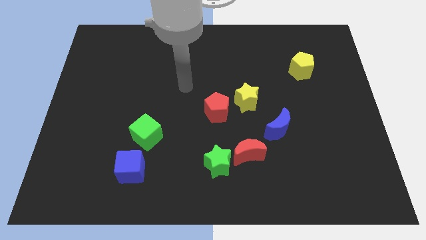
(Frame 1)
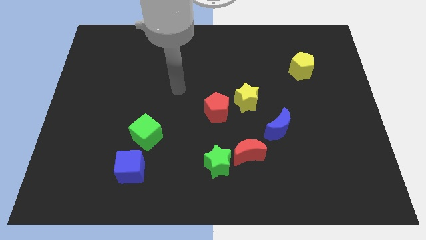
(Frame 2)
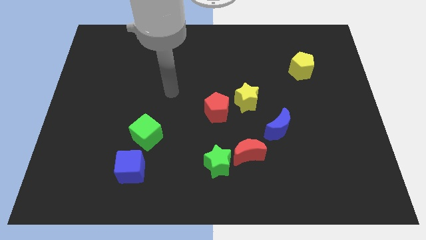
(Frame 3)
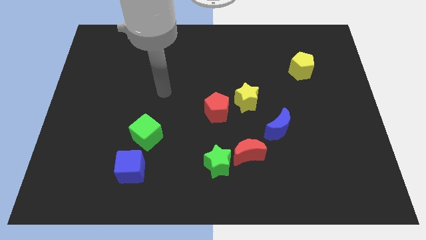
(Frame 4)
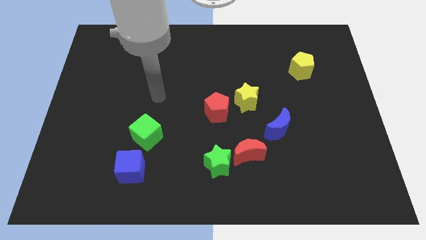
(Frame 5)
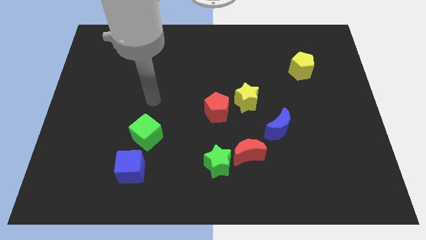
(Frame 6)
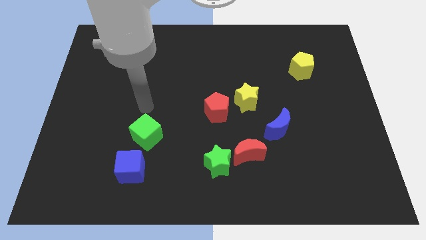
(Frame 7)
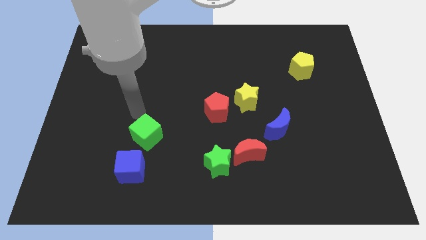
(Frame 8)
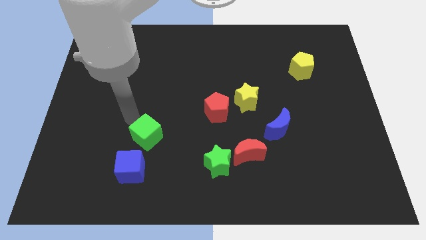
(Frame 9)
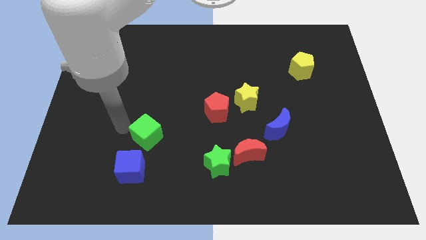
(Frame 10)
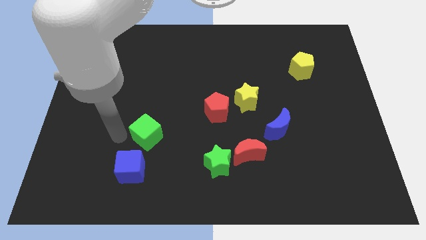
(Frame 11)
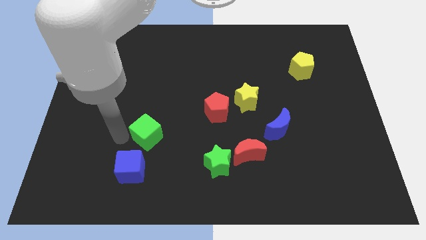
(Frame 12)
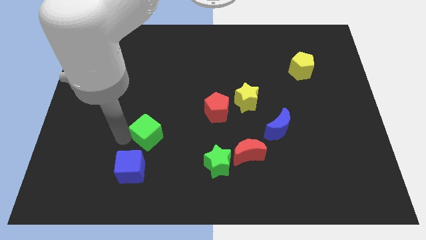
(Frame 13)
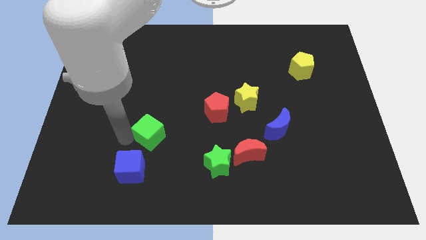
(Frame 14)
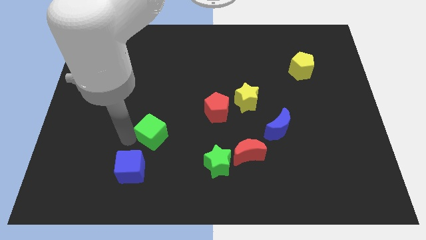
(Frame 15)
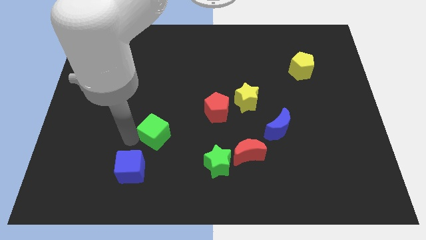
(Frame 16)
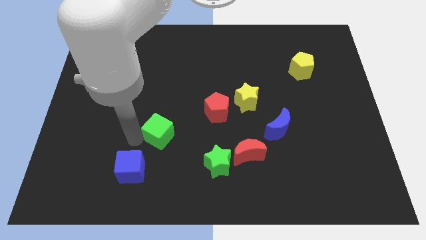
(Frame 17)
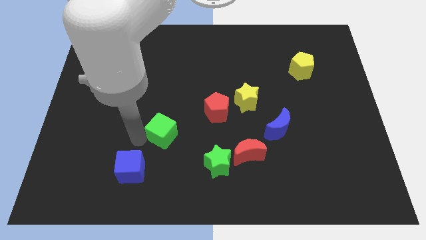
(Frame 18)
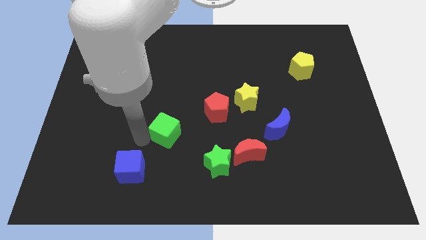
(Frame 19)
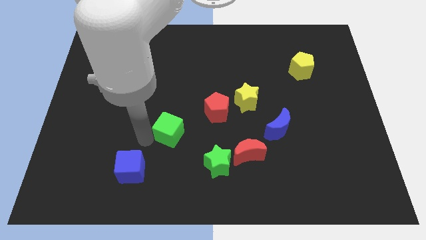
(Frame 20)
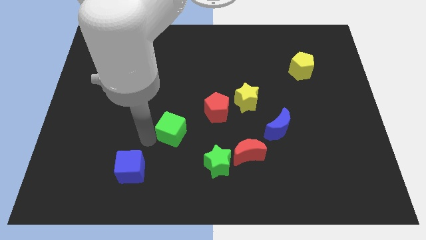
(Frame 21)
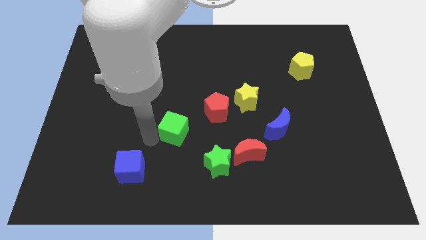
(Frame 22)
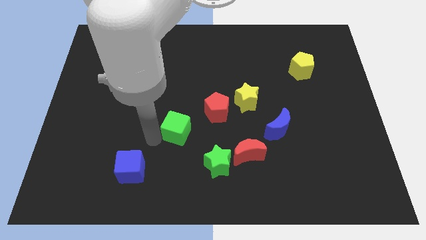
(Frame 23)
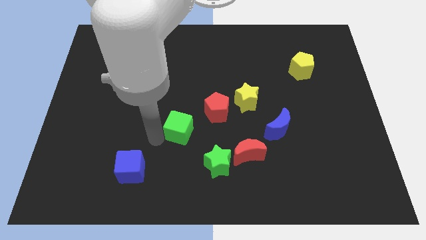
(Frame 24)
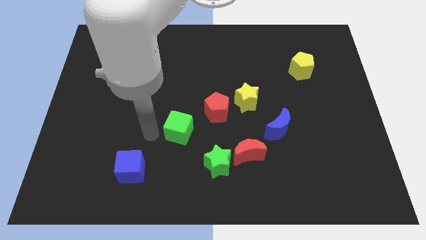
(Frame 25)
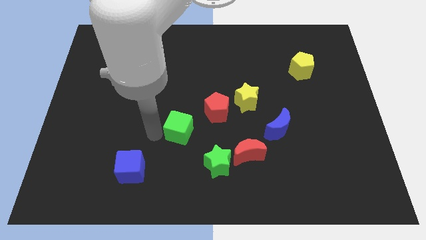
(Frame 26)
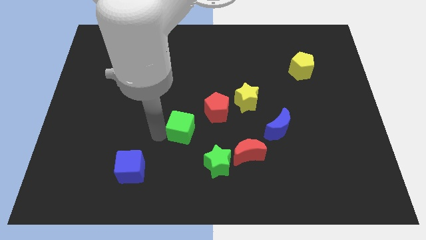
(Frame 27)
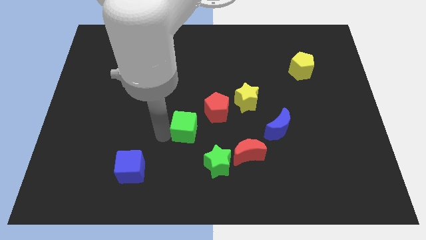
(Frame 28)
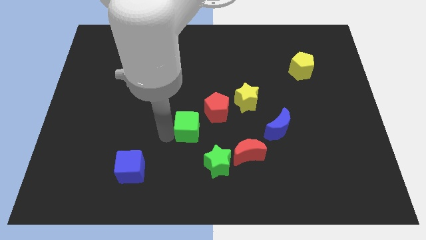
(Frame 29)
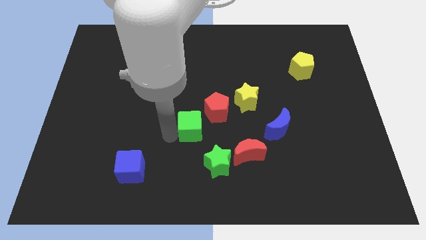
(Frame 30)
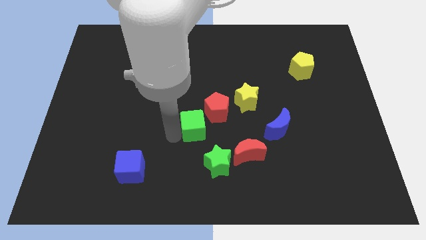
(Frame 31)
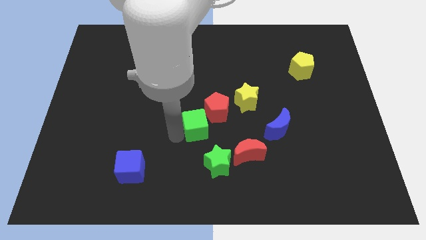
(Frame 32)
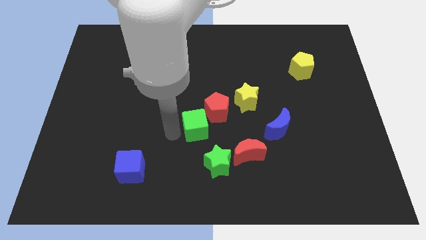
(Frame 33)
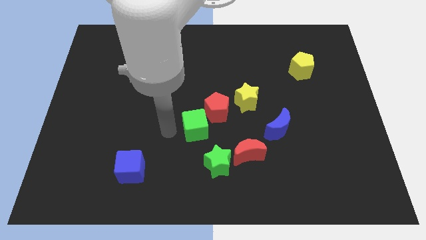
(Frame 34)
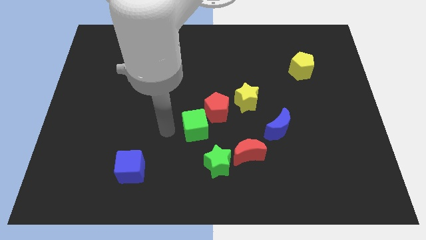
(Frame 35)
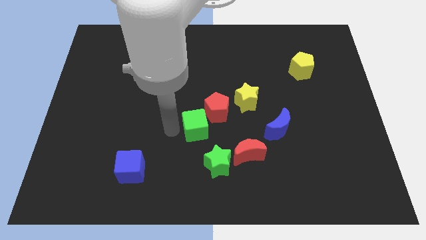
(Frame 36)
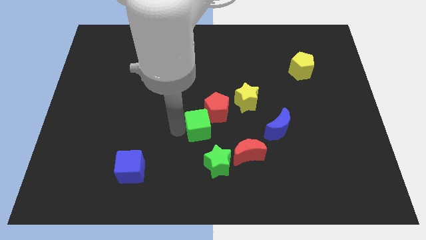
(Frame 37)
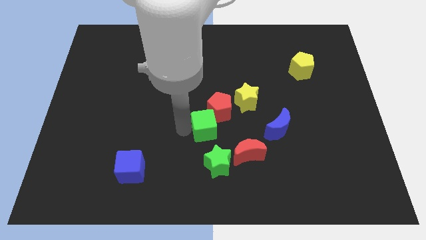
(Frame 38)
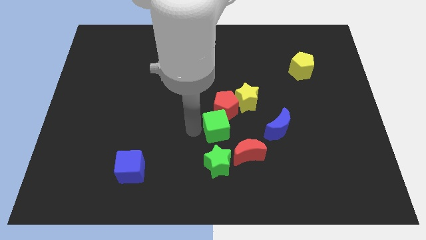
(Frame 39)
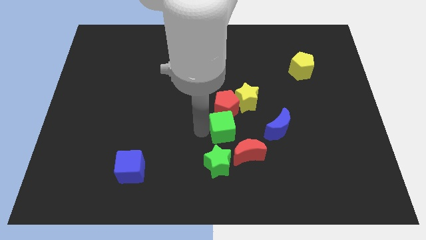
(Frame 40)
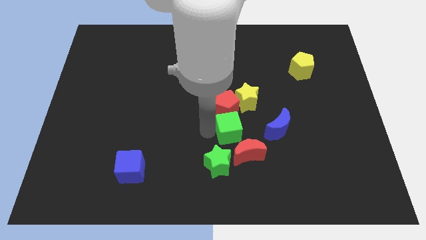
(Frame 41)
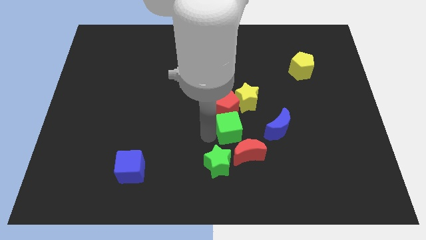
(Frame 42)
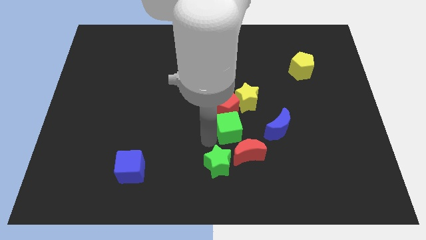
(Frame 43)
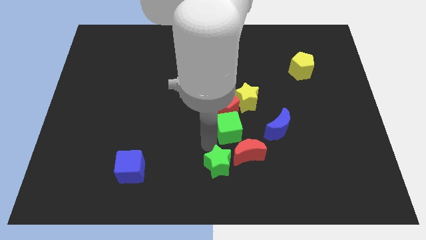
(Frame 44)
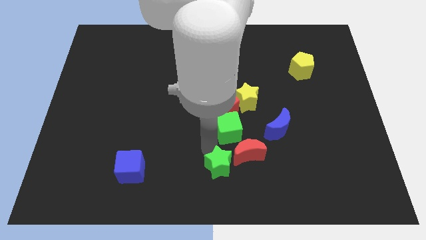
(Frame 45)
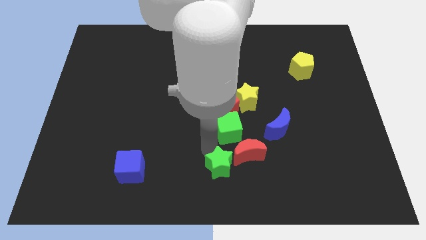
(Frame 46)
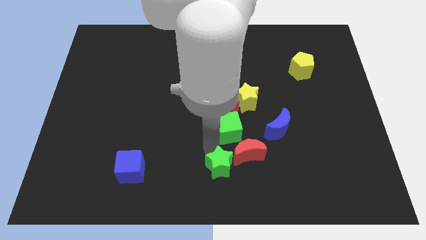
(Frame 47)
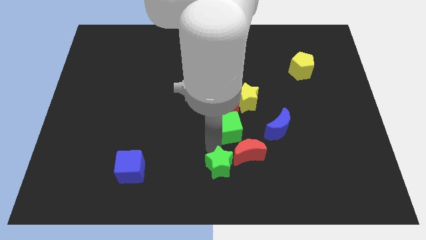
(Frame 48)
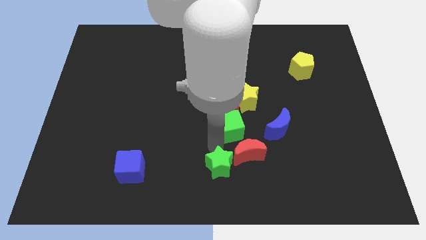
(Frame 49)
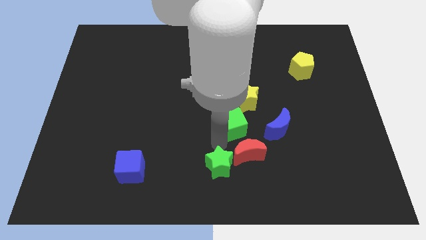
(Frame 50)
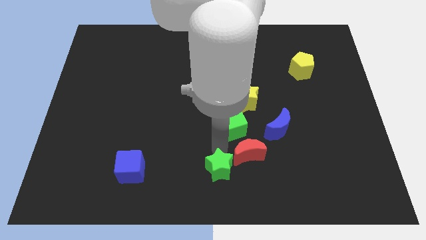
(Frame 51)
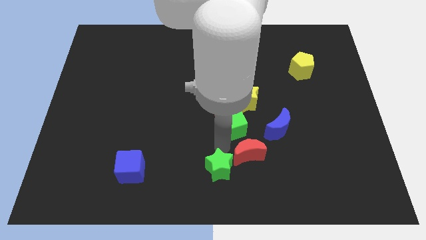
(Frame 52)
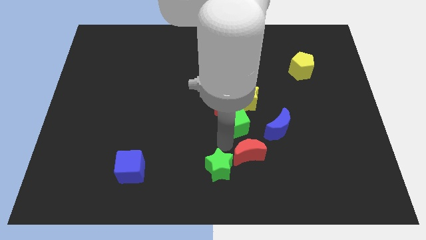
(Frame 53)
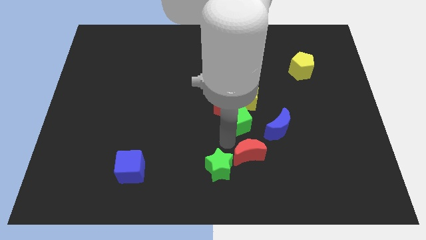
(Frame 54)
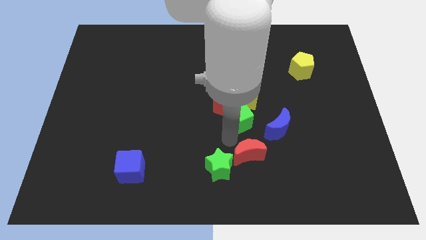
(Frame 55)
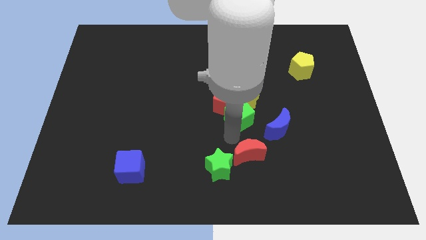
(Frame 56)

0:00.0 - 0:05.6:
slide the green cube next to the yellow star

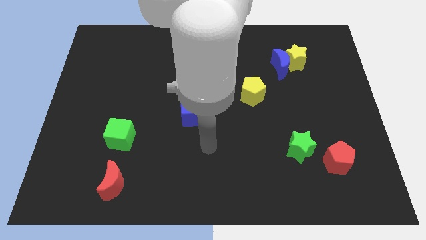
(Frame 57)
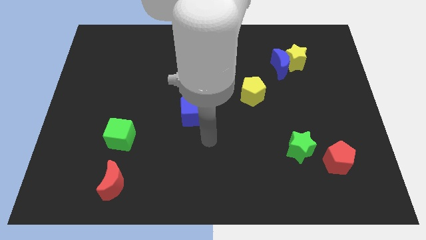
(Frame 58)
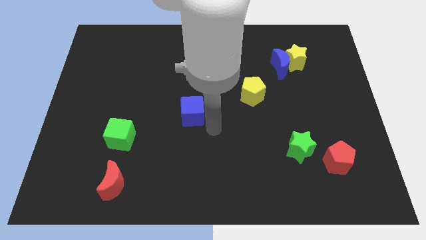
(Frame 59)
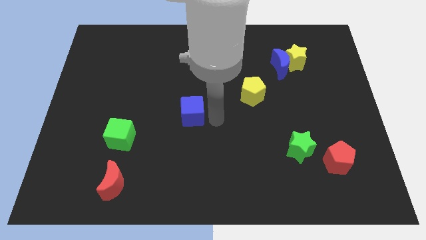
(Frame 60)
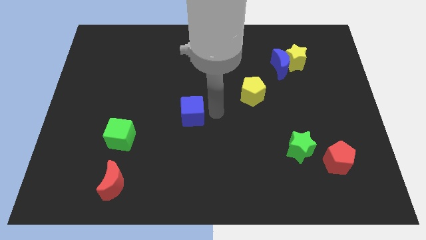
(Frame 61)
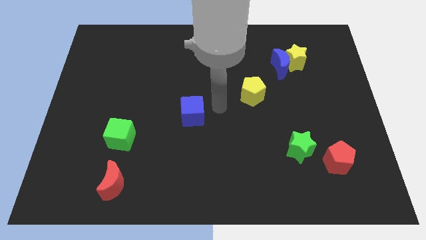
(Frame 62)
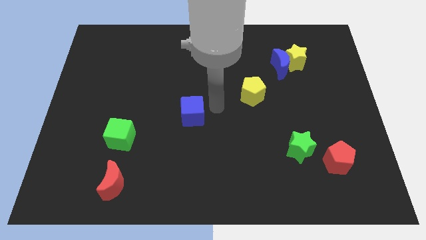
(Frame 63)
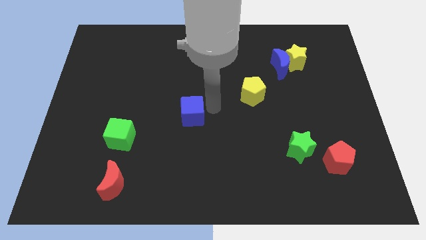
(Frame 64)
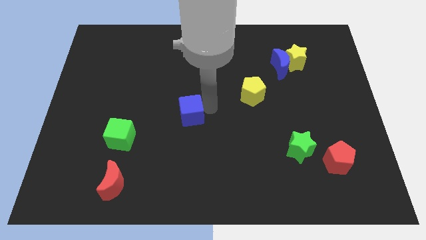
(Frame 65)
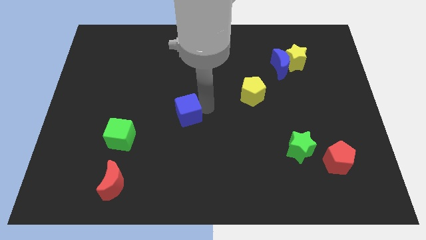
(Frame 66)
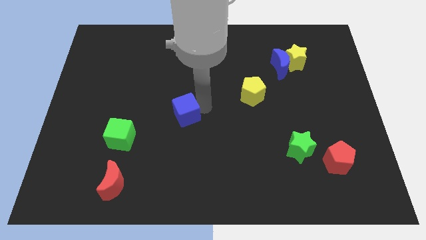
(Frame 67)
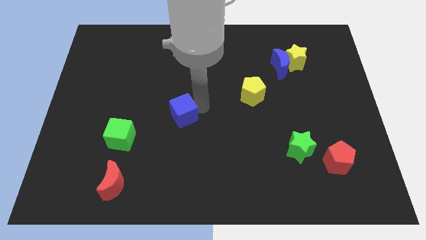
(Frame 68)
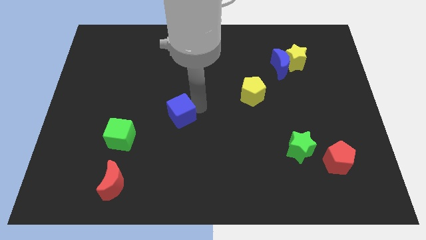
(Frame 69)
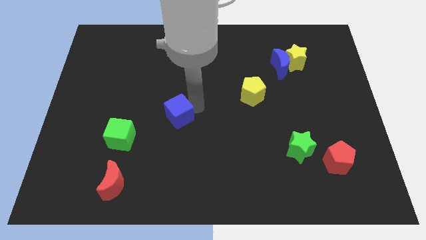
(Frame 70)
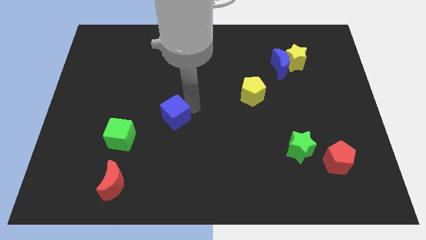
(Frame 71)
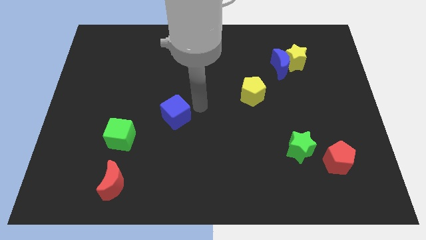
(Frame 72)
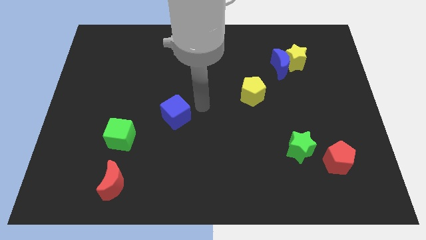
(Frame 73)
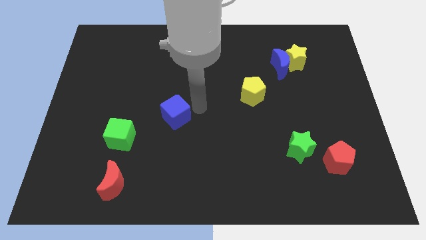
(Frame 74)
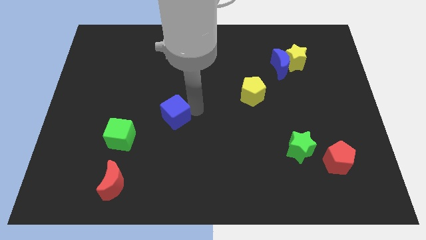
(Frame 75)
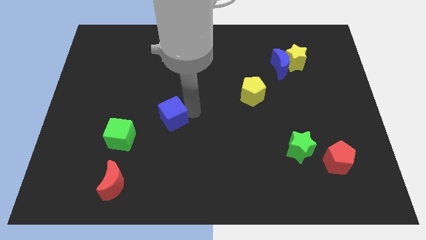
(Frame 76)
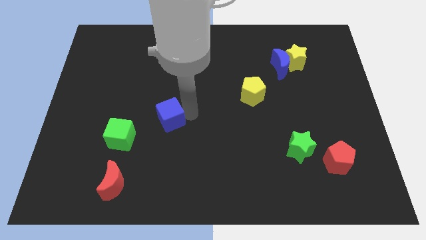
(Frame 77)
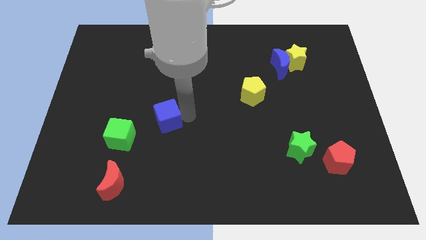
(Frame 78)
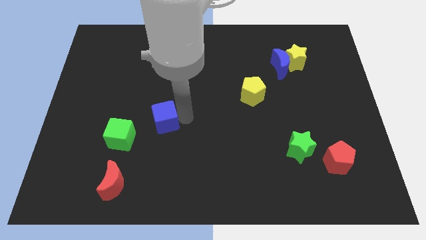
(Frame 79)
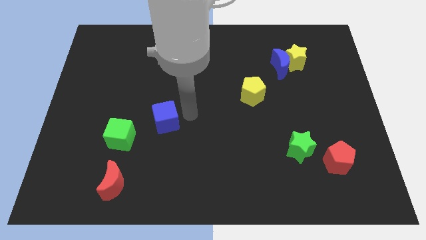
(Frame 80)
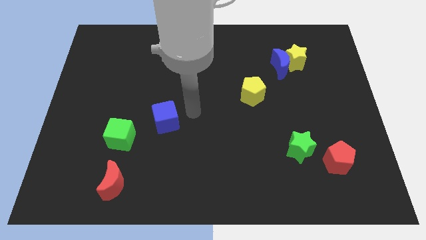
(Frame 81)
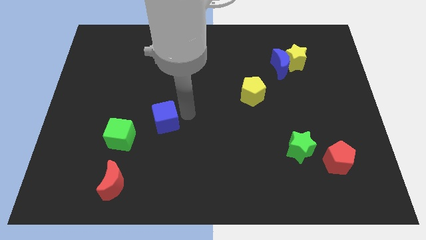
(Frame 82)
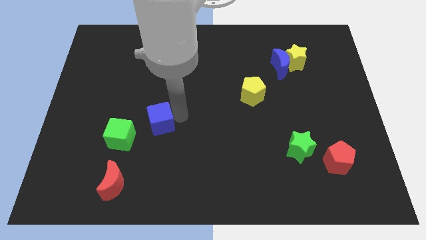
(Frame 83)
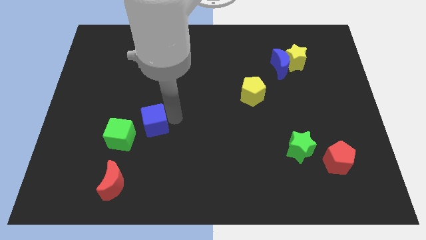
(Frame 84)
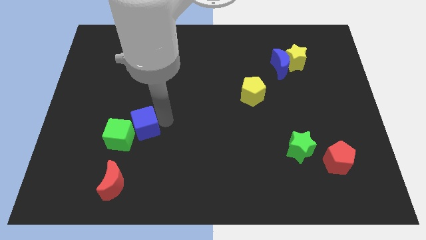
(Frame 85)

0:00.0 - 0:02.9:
move the blue cube next to the green cube
